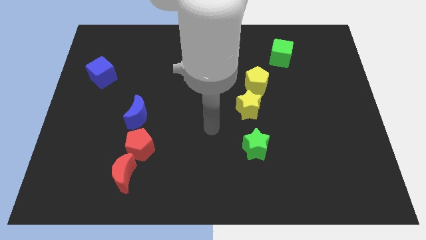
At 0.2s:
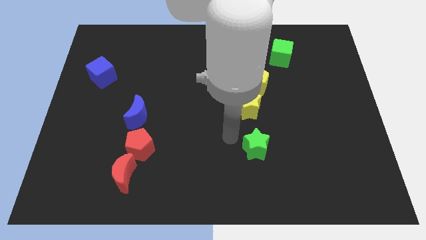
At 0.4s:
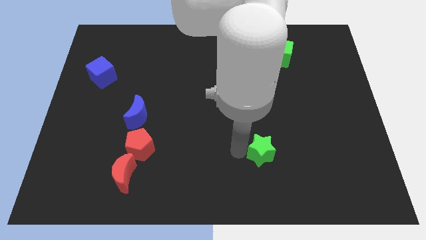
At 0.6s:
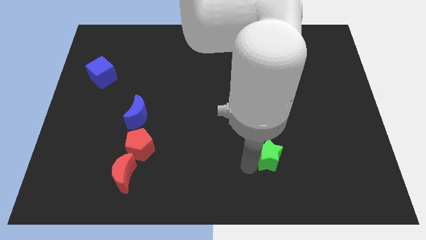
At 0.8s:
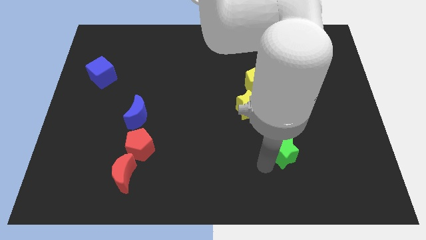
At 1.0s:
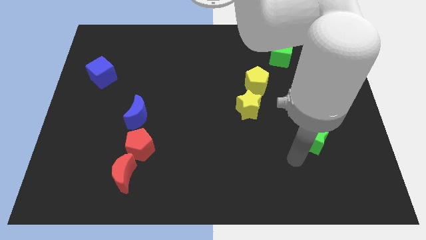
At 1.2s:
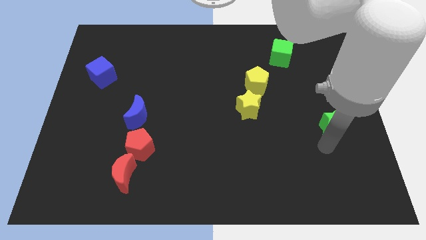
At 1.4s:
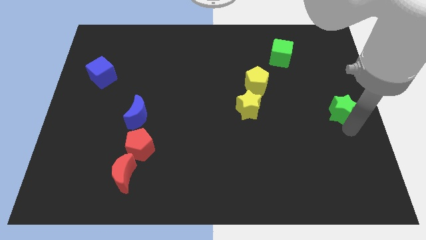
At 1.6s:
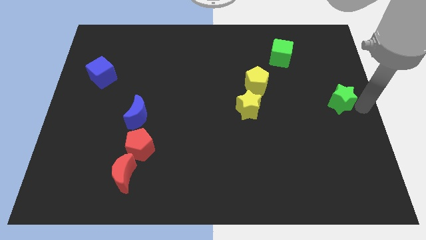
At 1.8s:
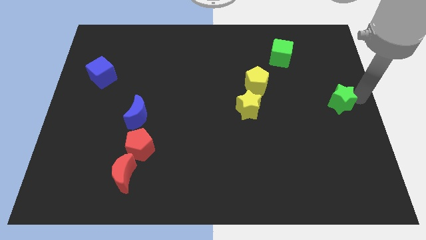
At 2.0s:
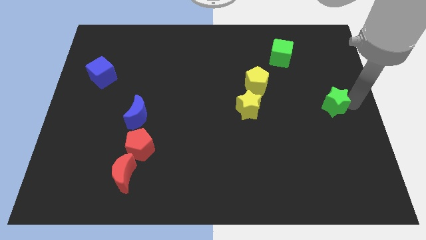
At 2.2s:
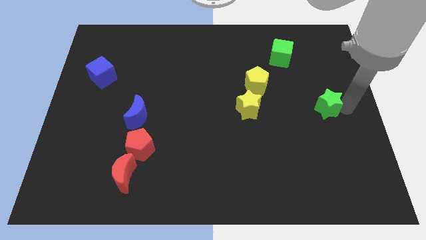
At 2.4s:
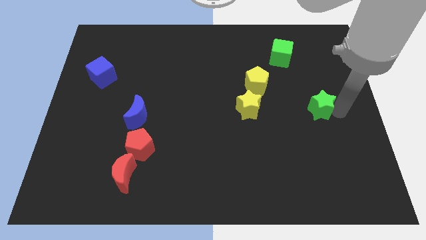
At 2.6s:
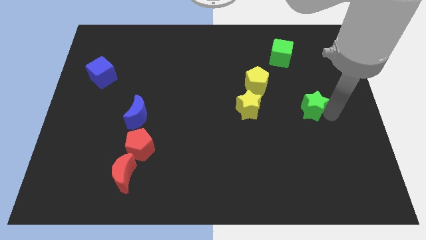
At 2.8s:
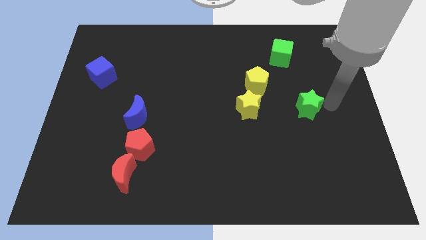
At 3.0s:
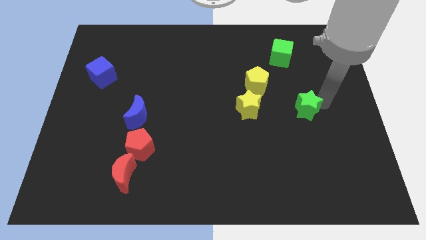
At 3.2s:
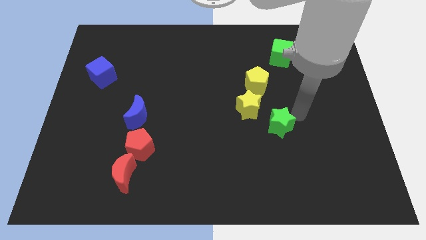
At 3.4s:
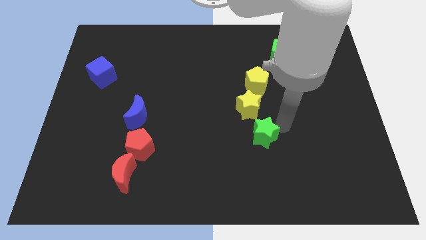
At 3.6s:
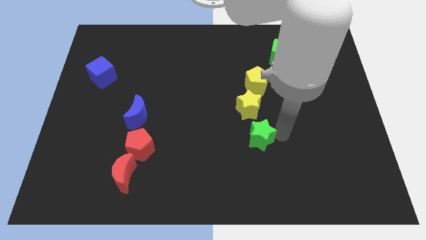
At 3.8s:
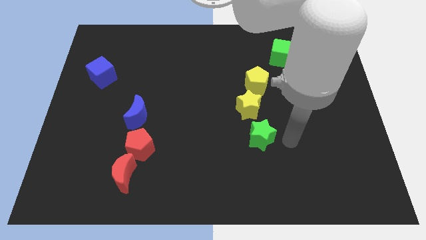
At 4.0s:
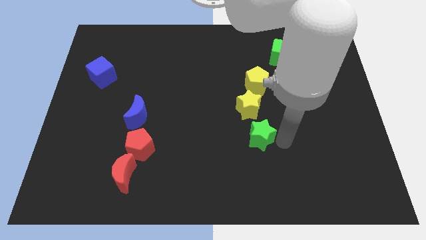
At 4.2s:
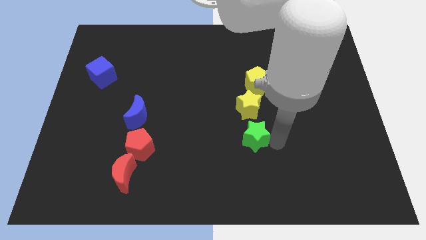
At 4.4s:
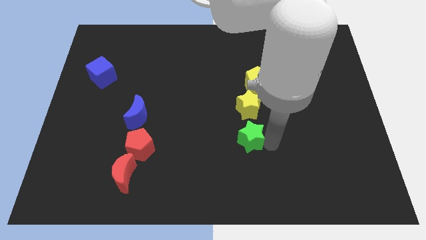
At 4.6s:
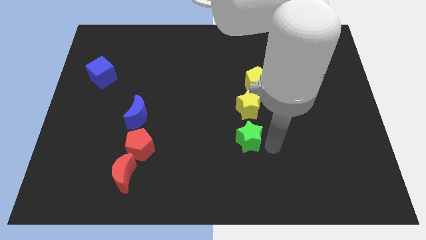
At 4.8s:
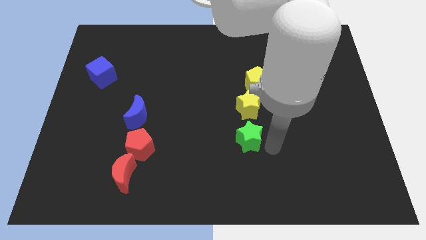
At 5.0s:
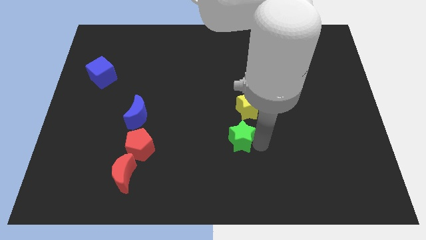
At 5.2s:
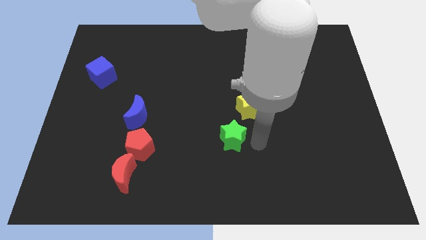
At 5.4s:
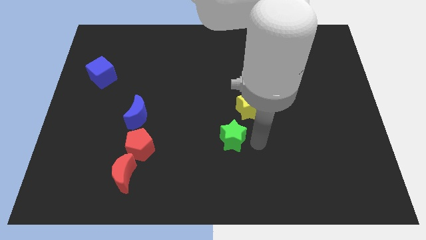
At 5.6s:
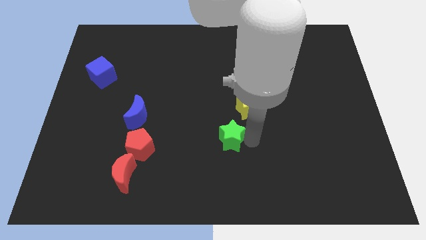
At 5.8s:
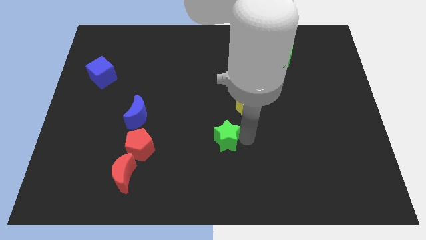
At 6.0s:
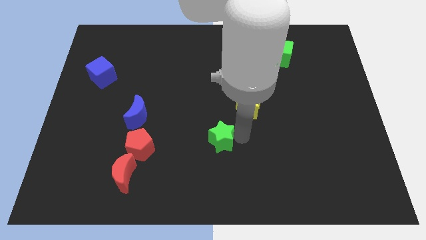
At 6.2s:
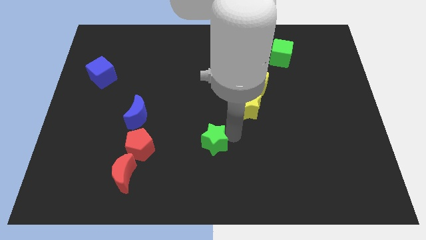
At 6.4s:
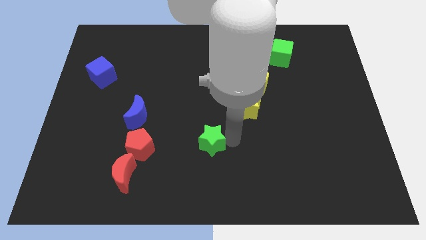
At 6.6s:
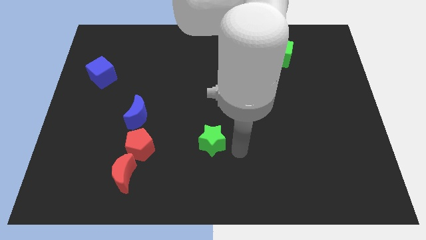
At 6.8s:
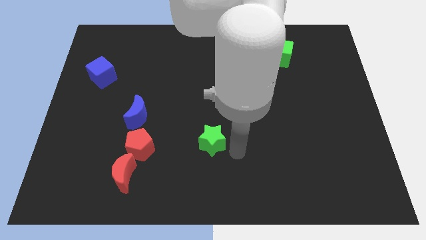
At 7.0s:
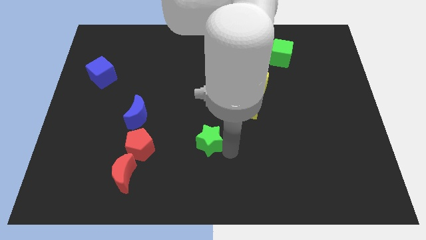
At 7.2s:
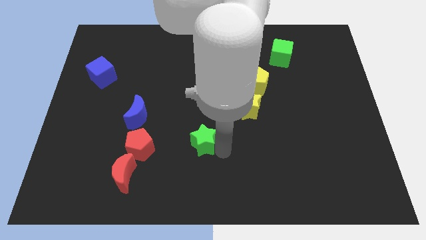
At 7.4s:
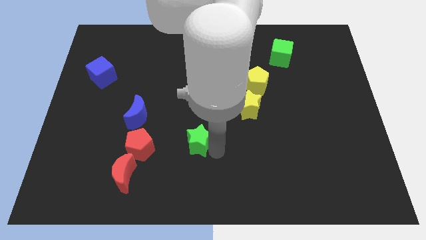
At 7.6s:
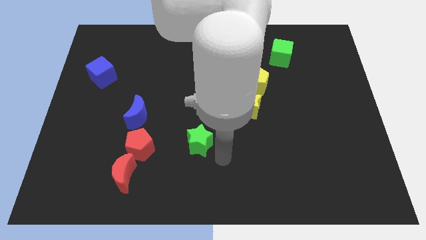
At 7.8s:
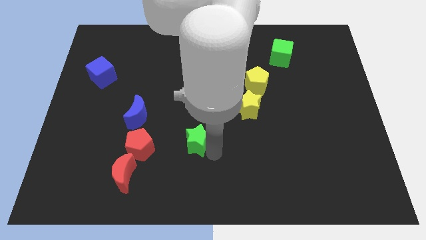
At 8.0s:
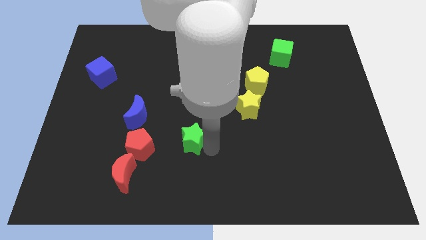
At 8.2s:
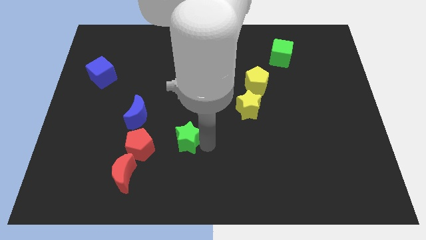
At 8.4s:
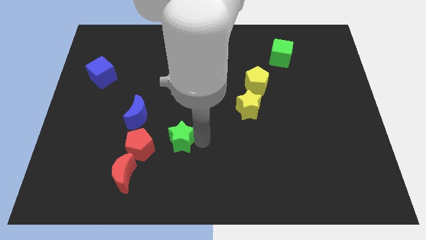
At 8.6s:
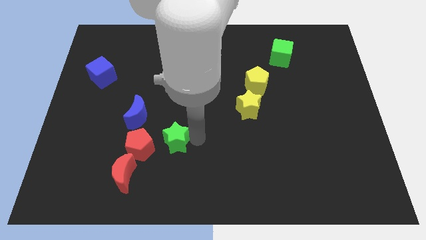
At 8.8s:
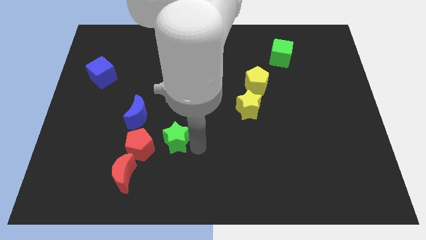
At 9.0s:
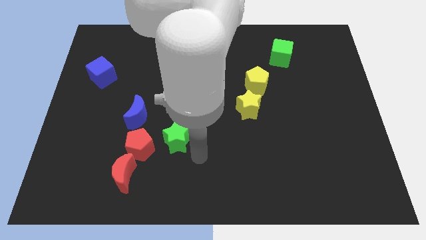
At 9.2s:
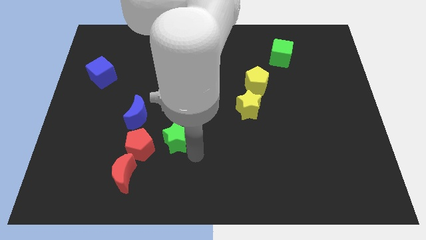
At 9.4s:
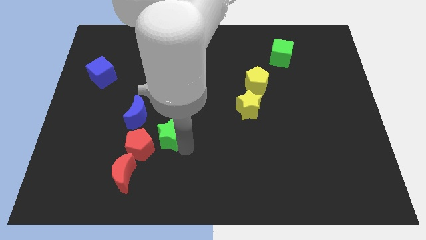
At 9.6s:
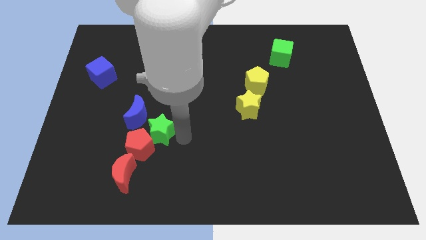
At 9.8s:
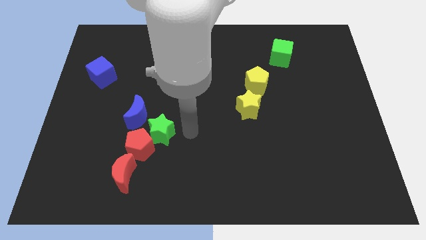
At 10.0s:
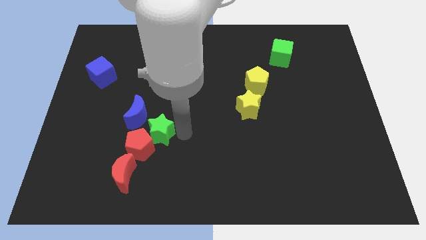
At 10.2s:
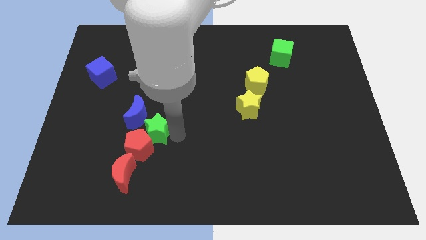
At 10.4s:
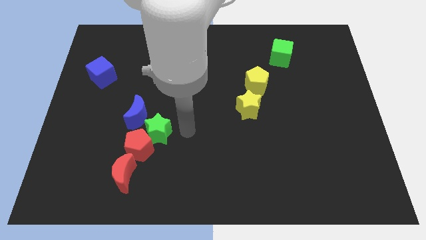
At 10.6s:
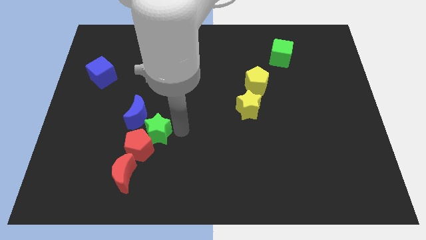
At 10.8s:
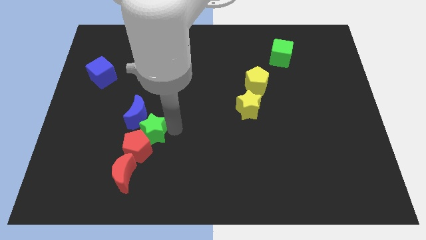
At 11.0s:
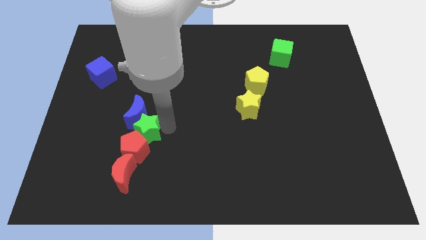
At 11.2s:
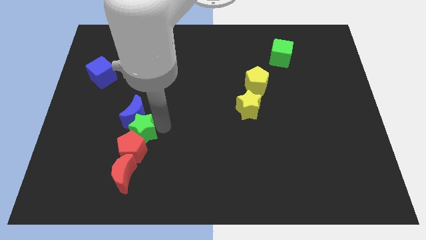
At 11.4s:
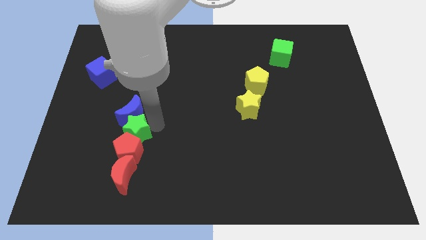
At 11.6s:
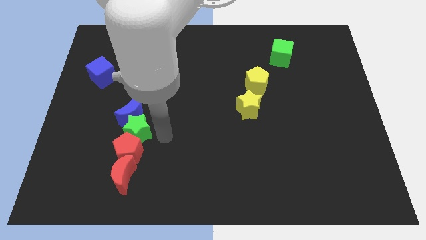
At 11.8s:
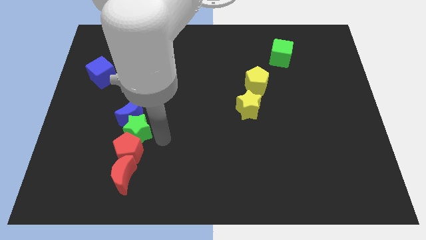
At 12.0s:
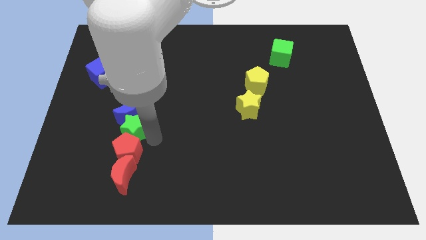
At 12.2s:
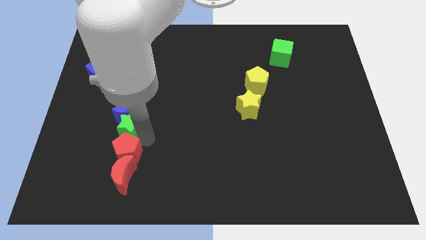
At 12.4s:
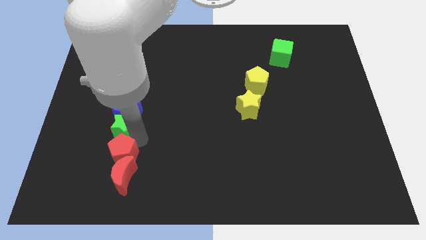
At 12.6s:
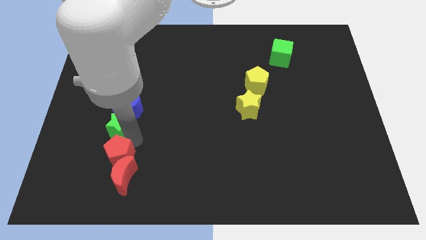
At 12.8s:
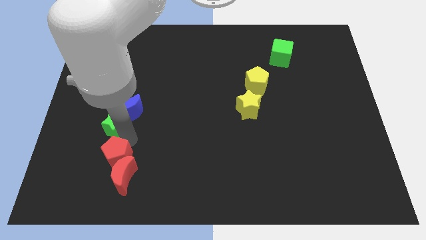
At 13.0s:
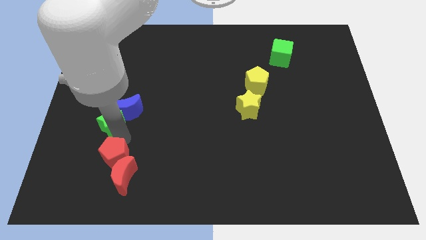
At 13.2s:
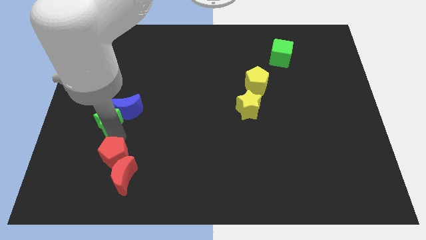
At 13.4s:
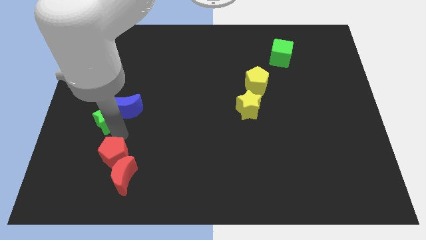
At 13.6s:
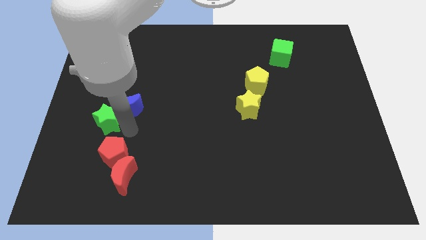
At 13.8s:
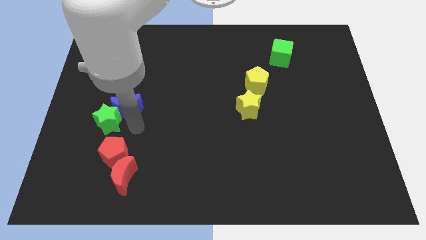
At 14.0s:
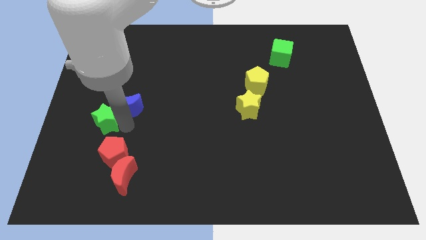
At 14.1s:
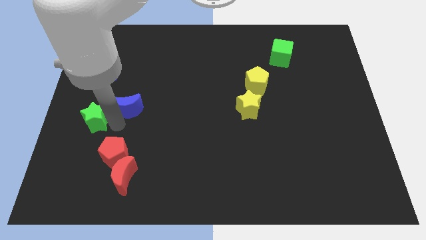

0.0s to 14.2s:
slide the green star to the center left
